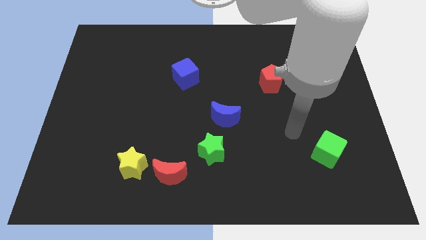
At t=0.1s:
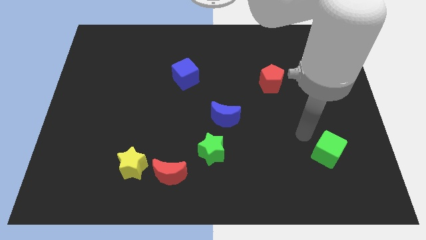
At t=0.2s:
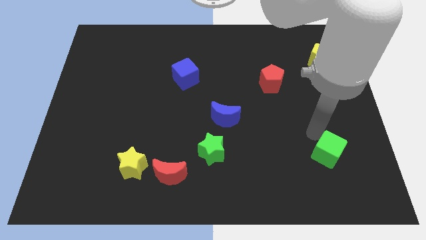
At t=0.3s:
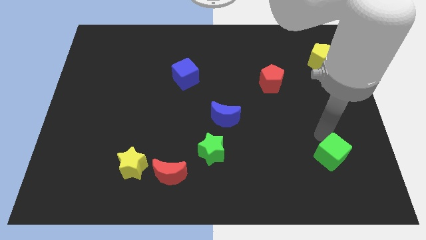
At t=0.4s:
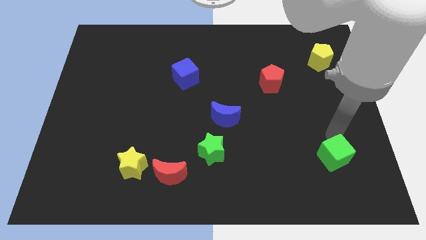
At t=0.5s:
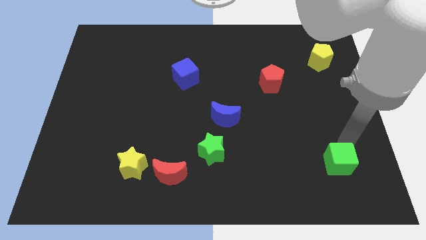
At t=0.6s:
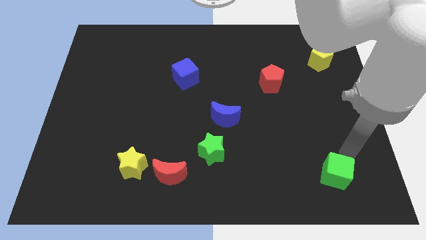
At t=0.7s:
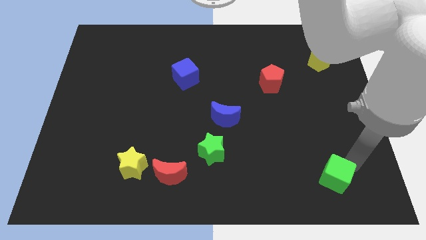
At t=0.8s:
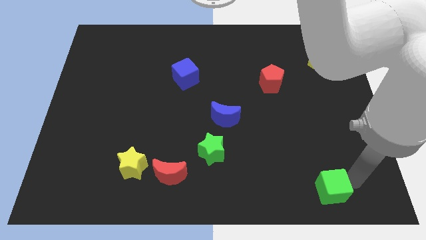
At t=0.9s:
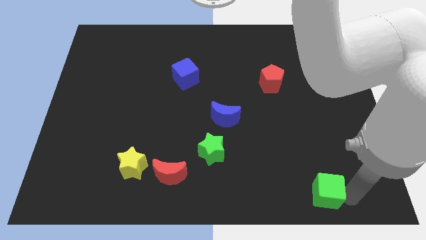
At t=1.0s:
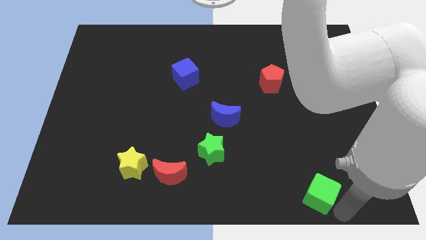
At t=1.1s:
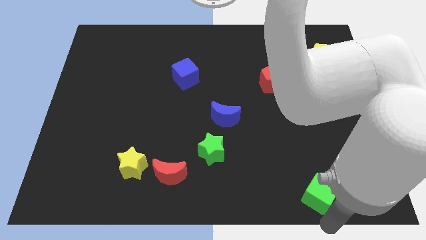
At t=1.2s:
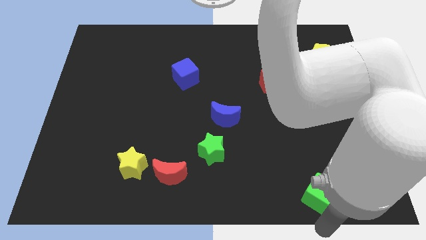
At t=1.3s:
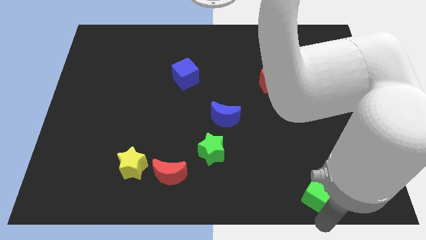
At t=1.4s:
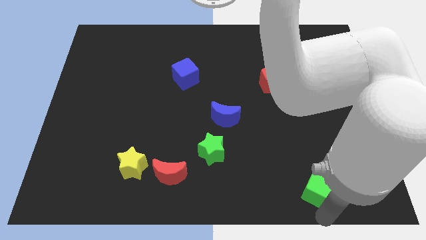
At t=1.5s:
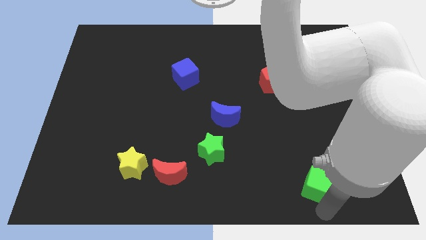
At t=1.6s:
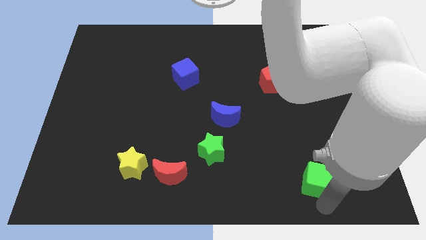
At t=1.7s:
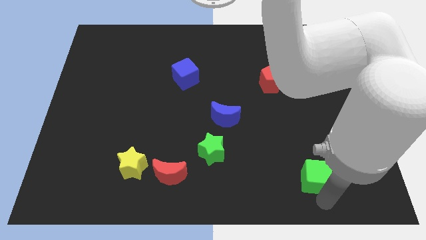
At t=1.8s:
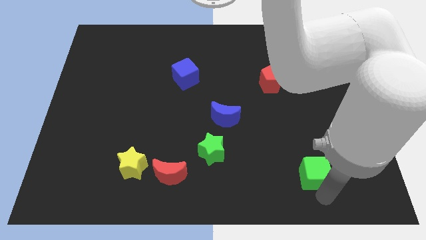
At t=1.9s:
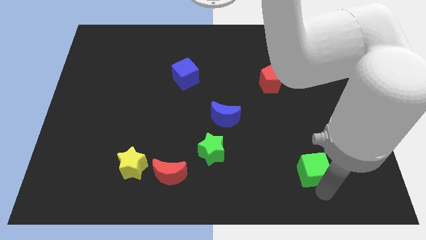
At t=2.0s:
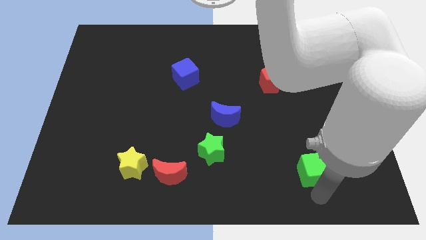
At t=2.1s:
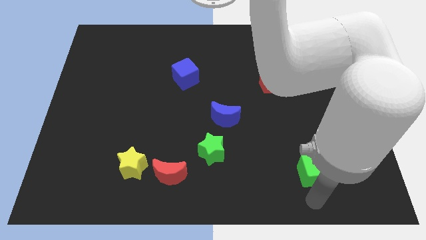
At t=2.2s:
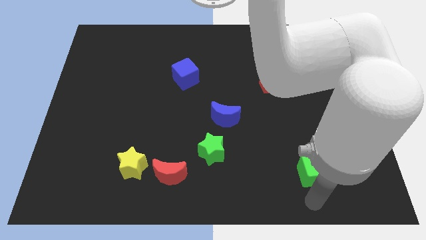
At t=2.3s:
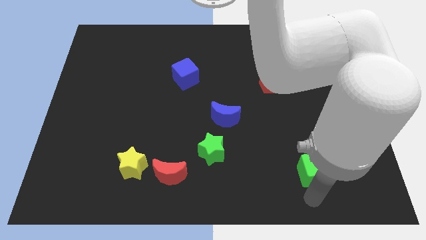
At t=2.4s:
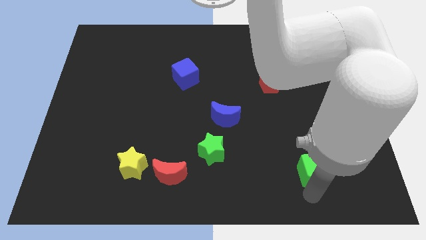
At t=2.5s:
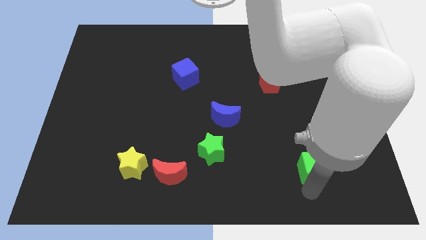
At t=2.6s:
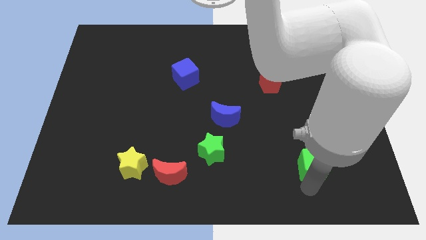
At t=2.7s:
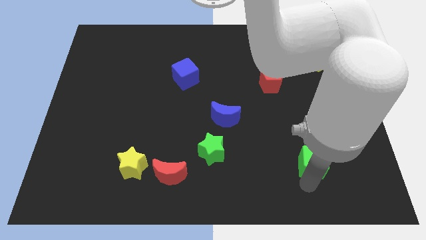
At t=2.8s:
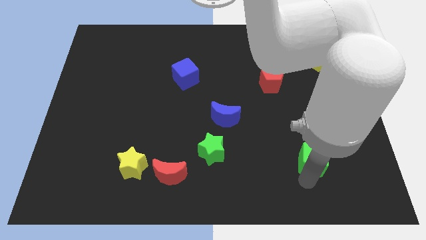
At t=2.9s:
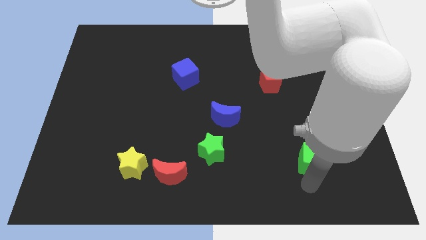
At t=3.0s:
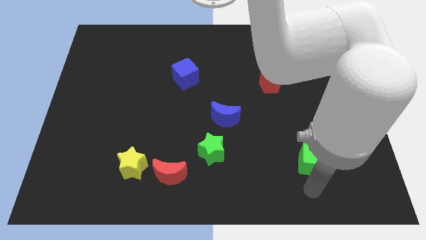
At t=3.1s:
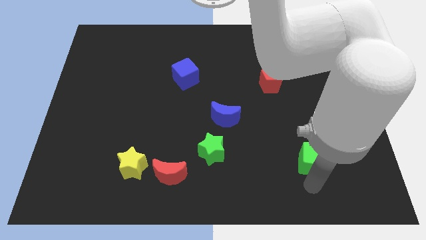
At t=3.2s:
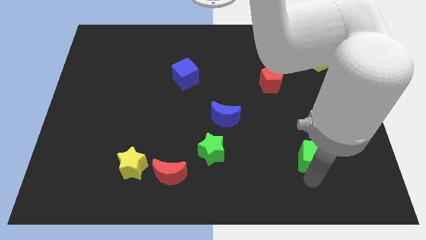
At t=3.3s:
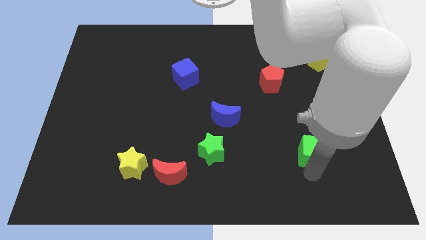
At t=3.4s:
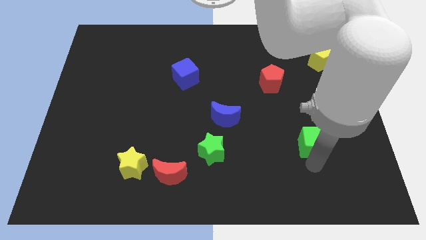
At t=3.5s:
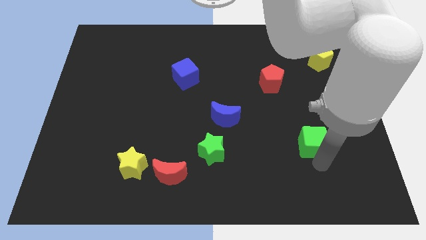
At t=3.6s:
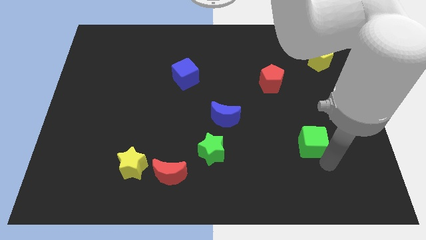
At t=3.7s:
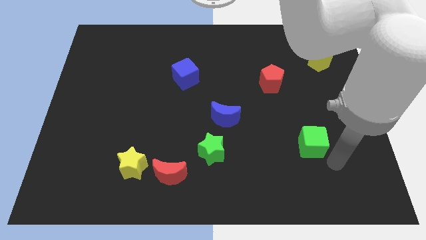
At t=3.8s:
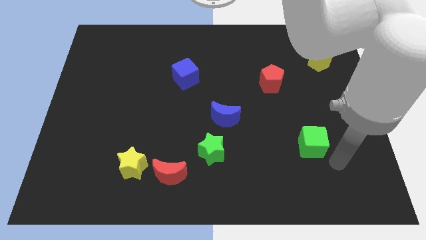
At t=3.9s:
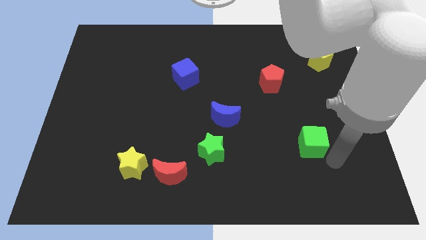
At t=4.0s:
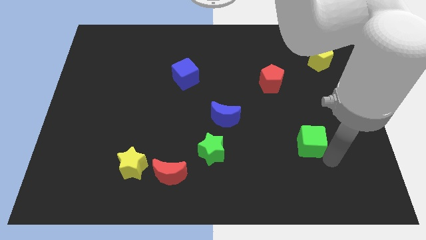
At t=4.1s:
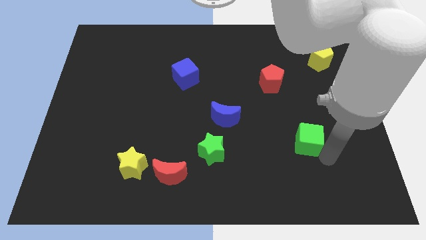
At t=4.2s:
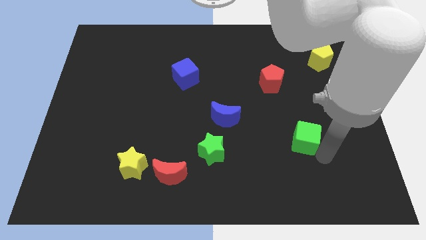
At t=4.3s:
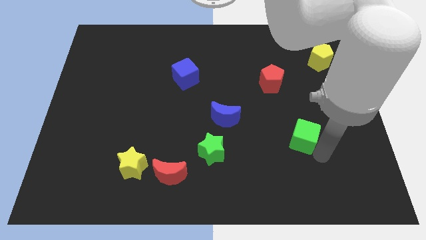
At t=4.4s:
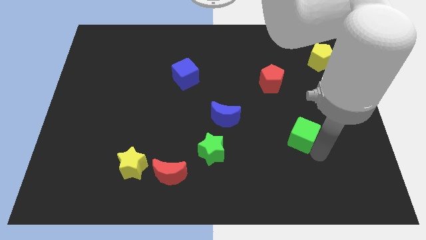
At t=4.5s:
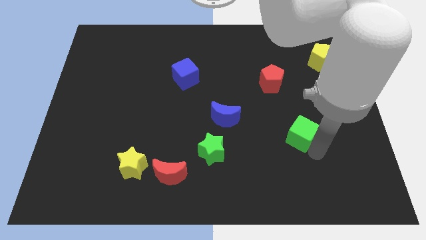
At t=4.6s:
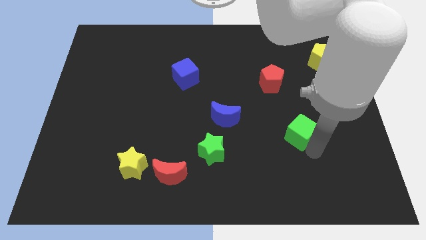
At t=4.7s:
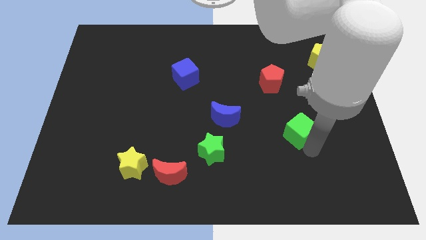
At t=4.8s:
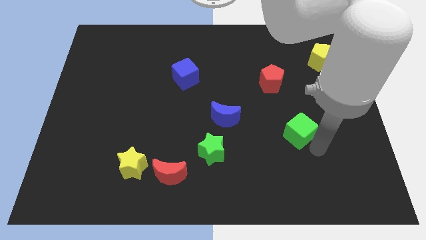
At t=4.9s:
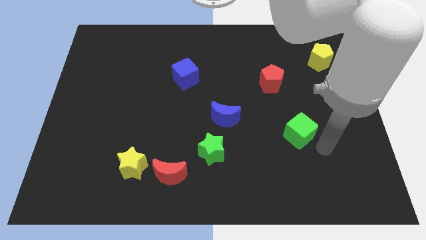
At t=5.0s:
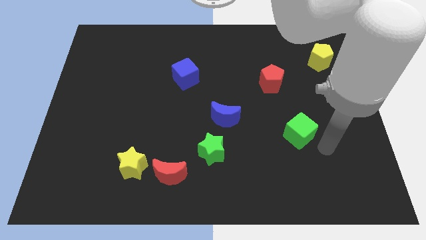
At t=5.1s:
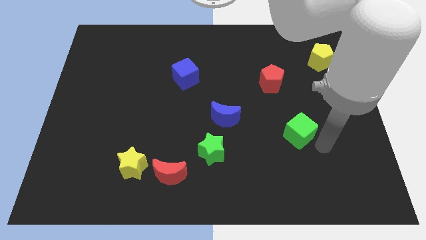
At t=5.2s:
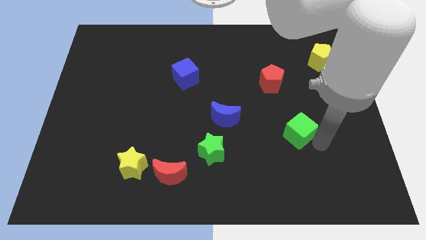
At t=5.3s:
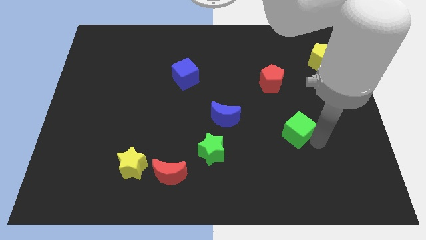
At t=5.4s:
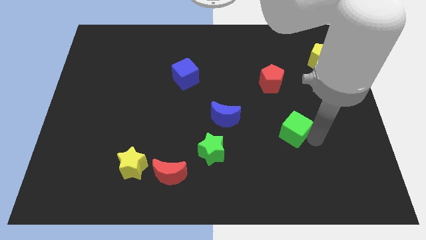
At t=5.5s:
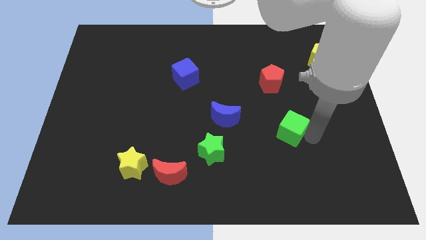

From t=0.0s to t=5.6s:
put the green cube just right of the blue moon

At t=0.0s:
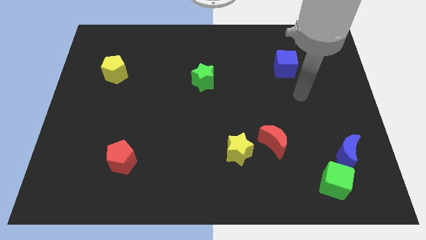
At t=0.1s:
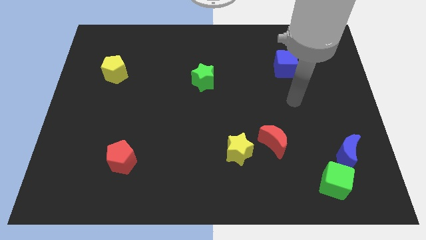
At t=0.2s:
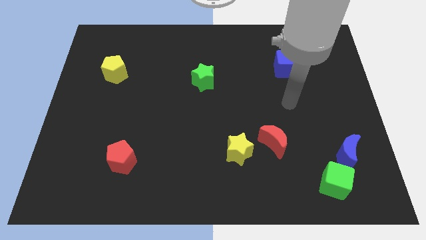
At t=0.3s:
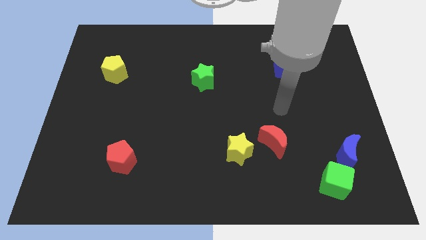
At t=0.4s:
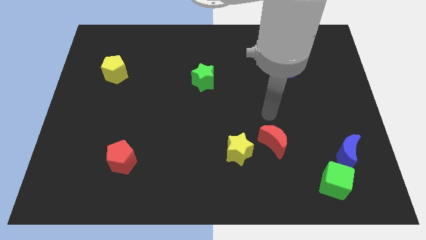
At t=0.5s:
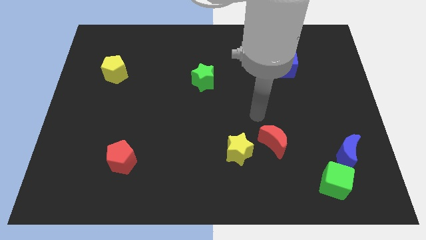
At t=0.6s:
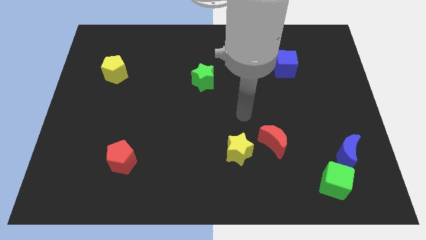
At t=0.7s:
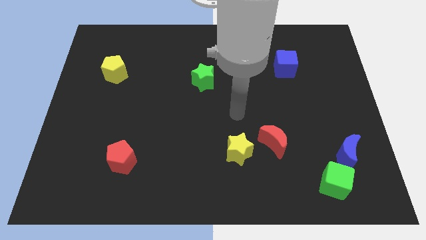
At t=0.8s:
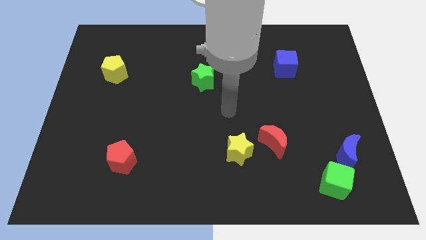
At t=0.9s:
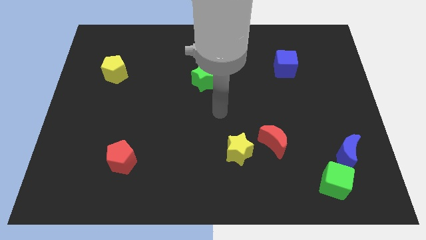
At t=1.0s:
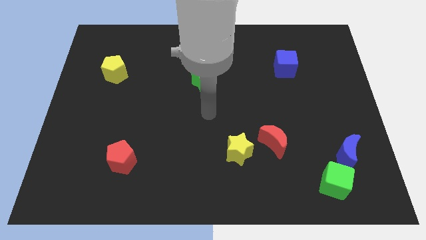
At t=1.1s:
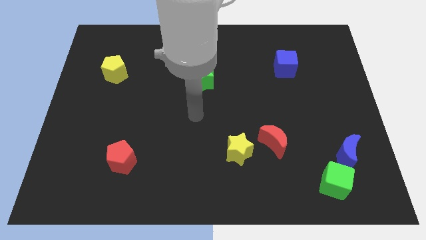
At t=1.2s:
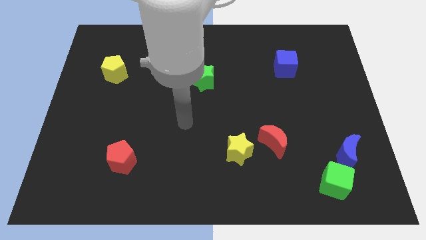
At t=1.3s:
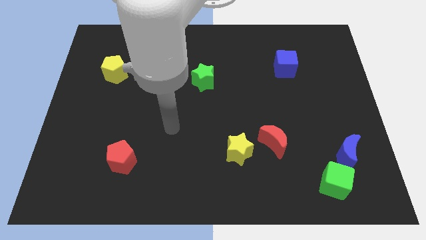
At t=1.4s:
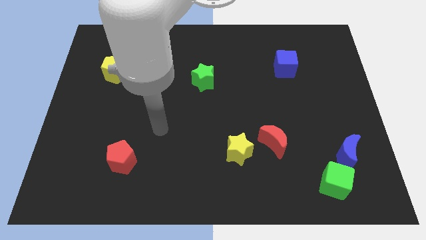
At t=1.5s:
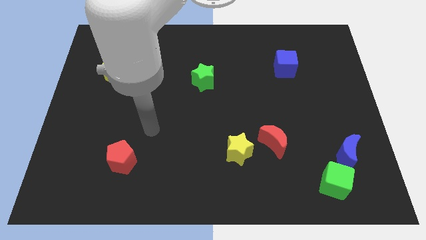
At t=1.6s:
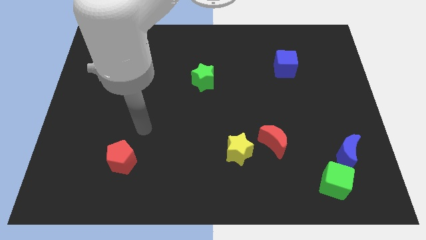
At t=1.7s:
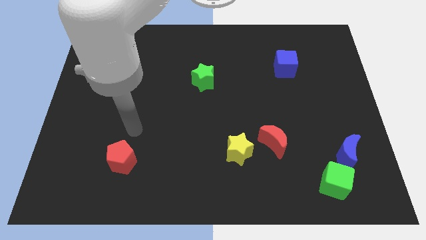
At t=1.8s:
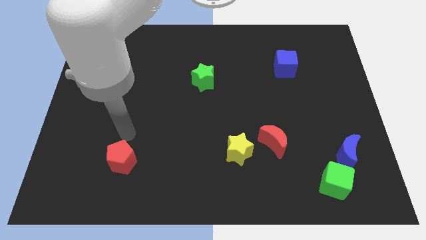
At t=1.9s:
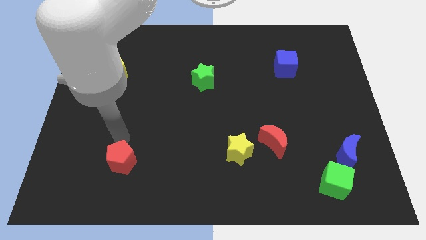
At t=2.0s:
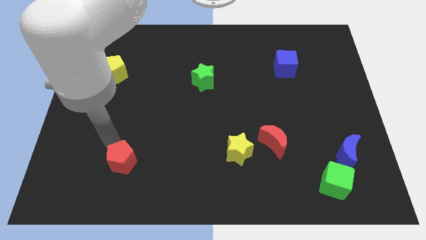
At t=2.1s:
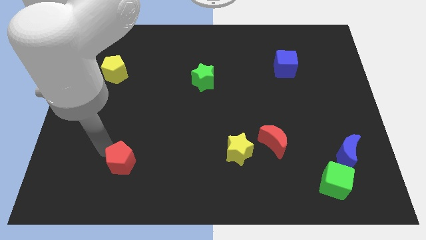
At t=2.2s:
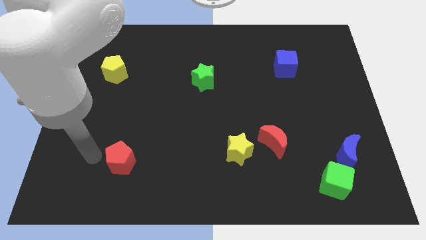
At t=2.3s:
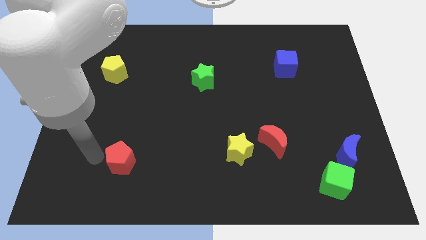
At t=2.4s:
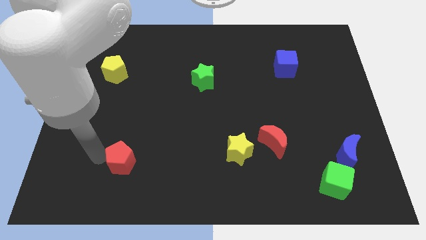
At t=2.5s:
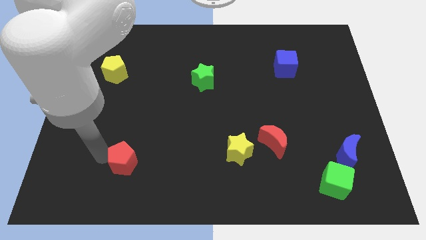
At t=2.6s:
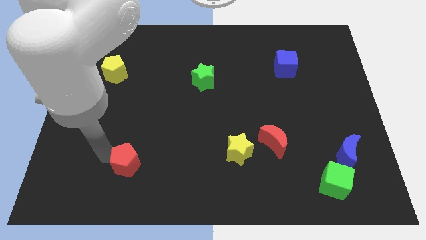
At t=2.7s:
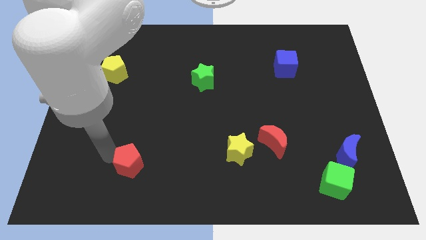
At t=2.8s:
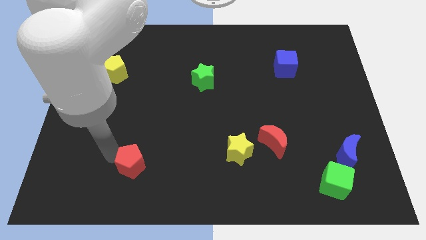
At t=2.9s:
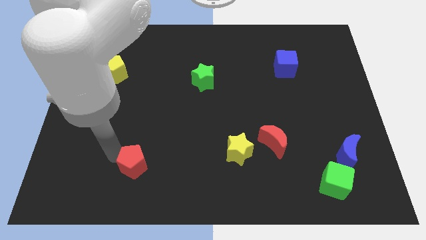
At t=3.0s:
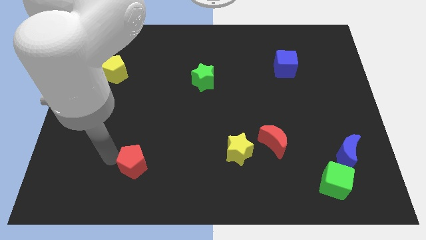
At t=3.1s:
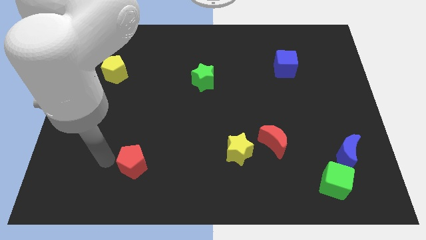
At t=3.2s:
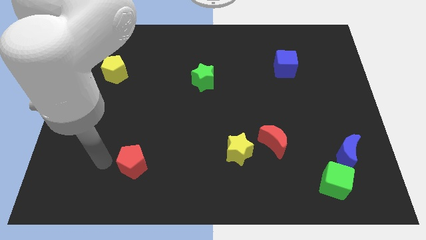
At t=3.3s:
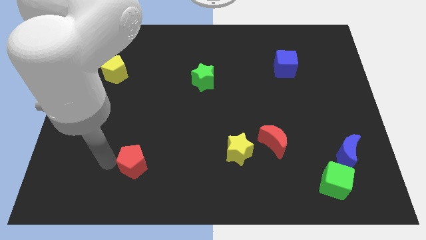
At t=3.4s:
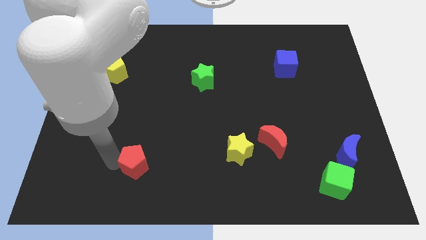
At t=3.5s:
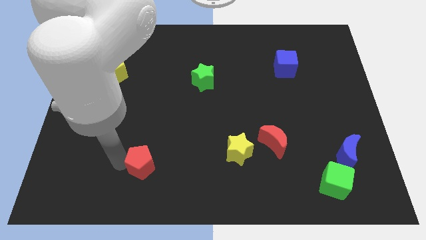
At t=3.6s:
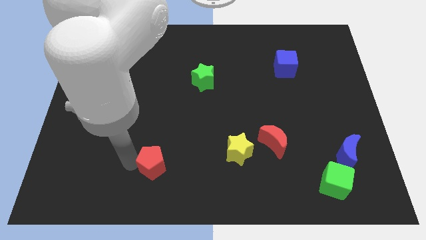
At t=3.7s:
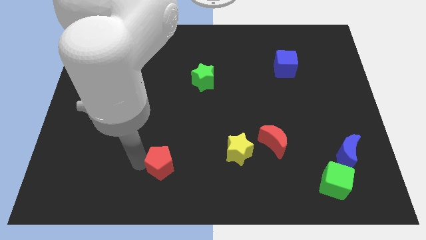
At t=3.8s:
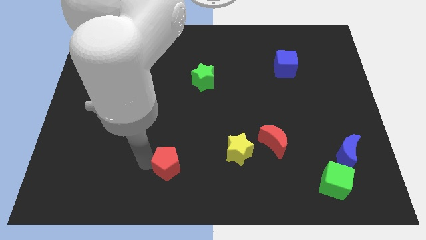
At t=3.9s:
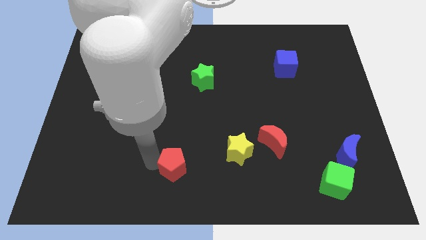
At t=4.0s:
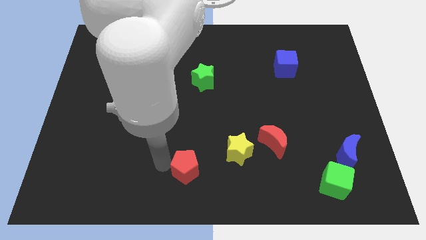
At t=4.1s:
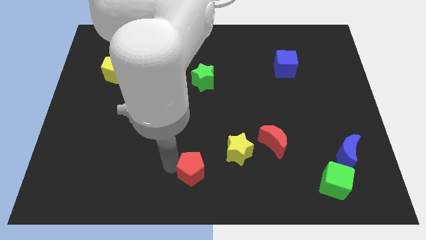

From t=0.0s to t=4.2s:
move the red pentagon diagonally down and to the left of the yellow star
